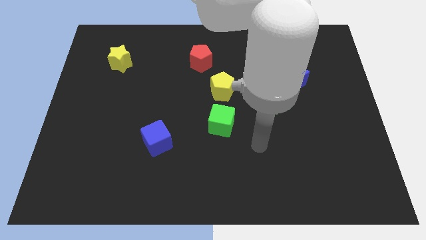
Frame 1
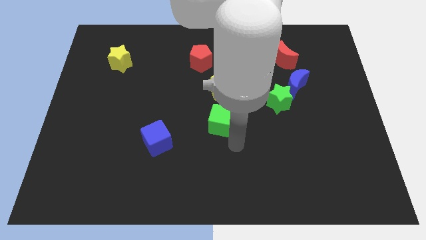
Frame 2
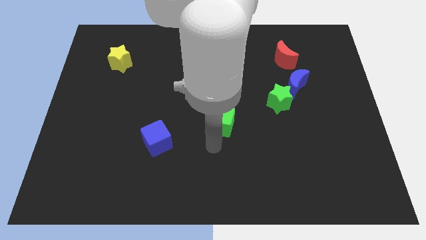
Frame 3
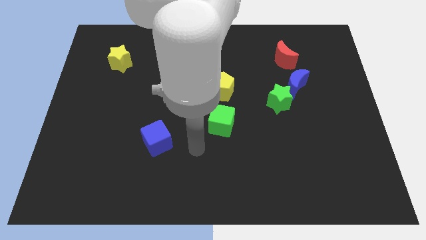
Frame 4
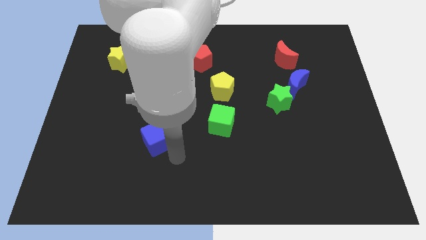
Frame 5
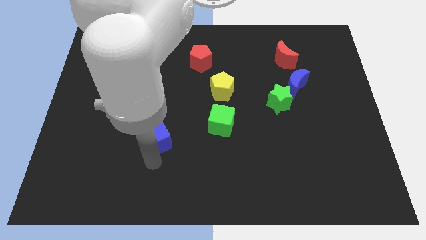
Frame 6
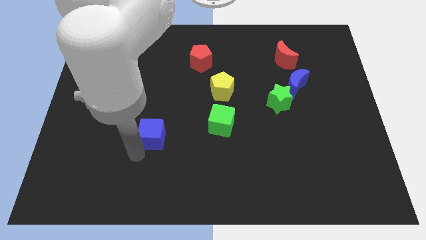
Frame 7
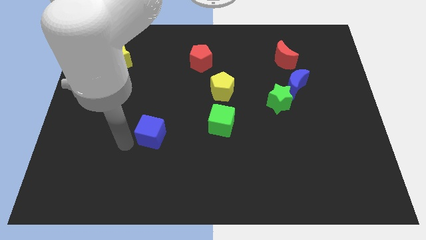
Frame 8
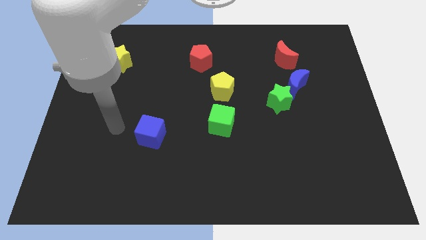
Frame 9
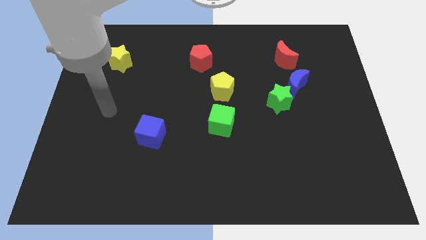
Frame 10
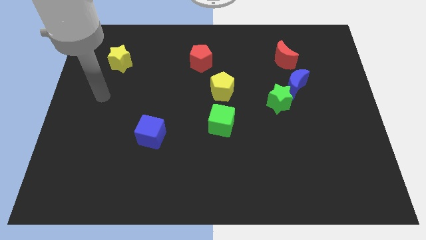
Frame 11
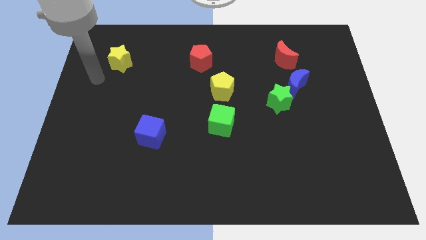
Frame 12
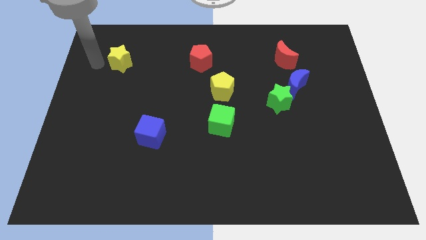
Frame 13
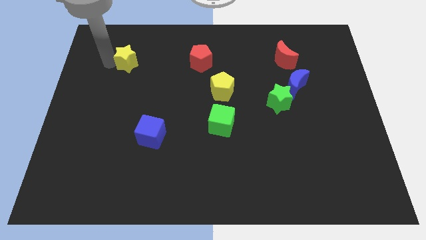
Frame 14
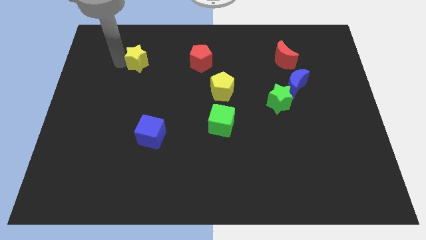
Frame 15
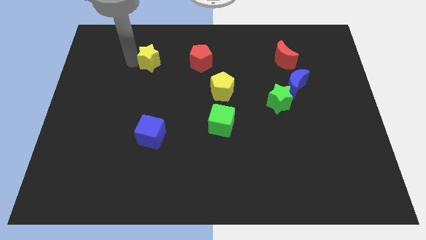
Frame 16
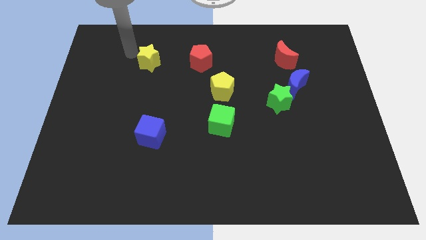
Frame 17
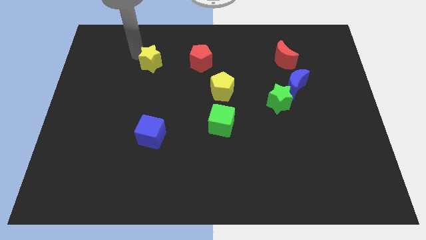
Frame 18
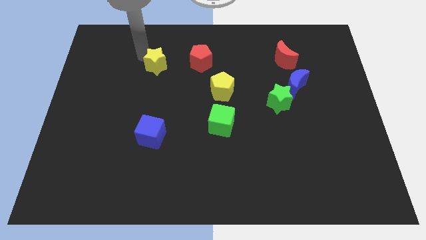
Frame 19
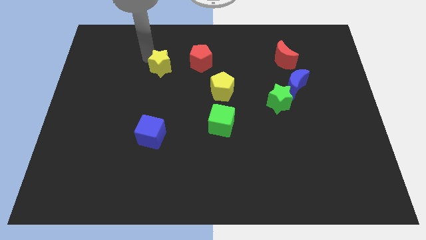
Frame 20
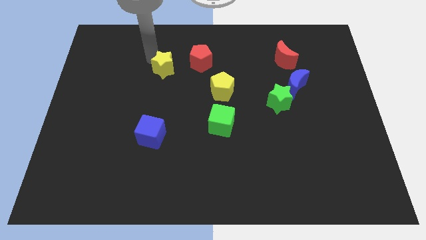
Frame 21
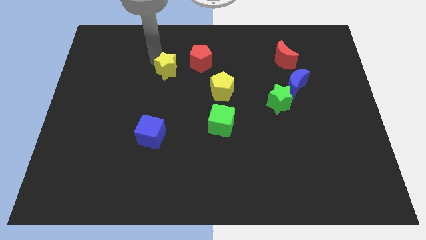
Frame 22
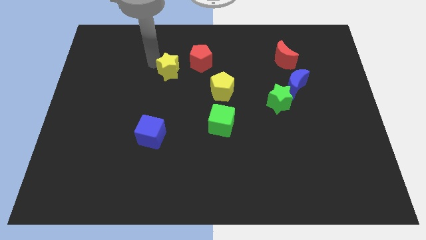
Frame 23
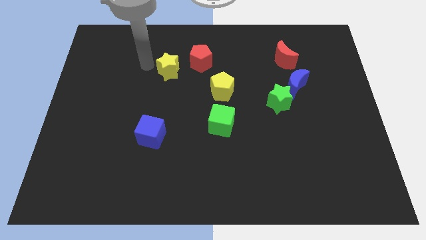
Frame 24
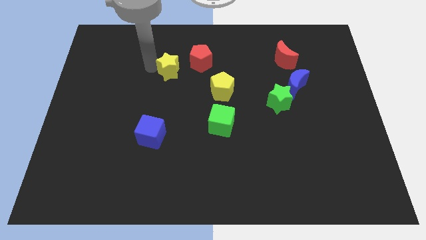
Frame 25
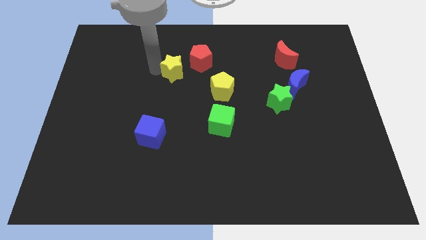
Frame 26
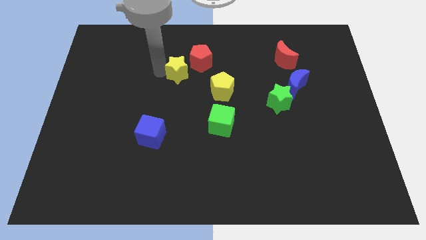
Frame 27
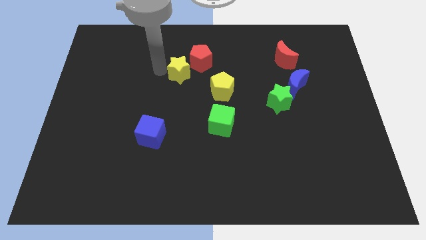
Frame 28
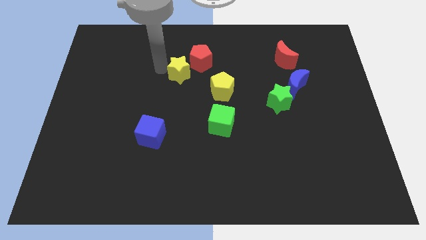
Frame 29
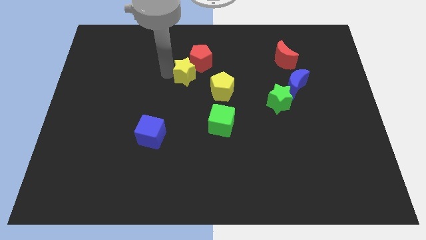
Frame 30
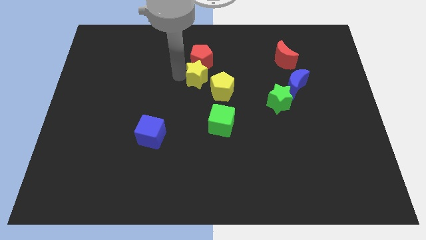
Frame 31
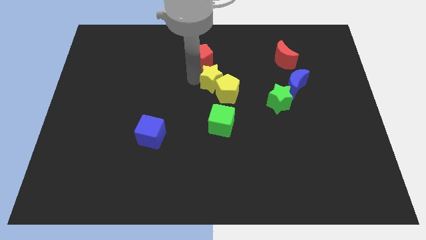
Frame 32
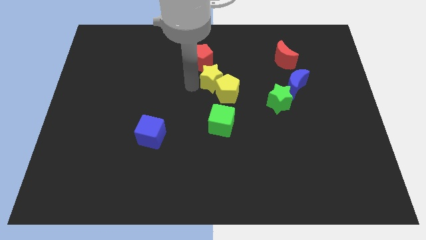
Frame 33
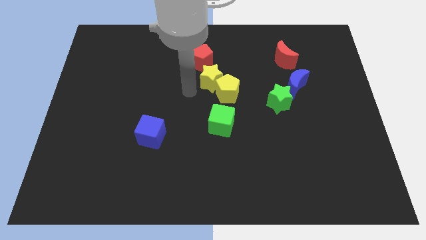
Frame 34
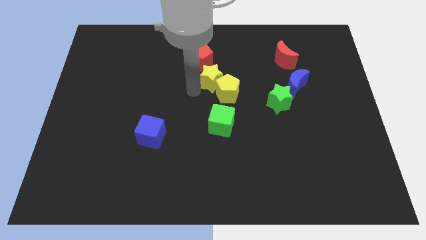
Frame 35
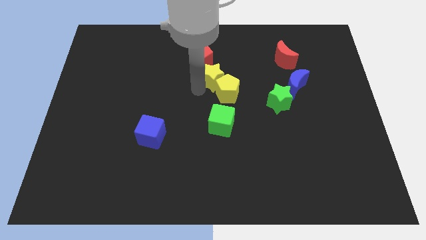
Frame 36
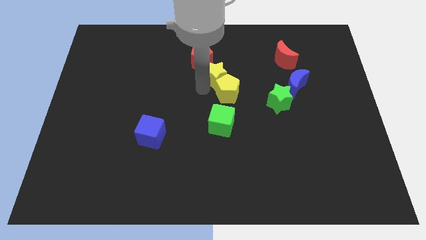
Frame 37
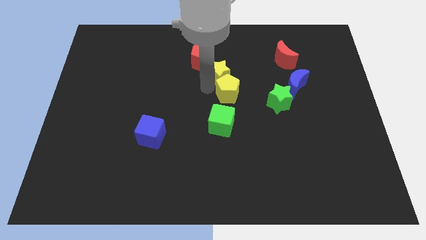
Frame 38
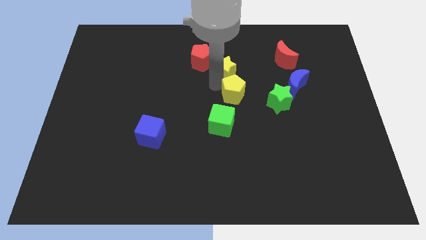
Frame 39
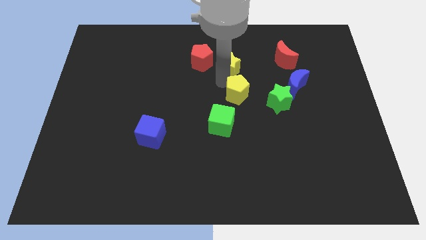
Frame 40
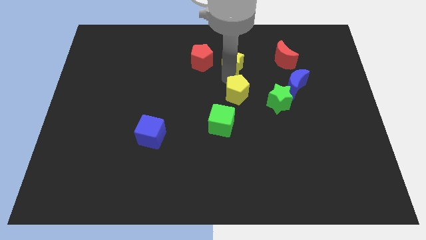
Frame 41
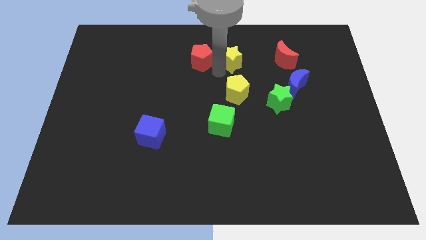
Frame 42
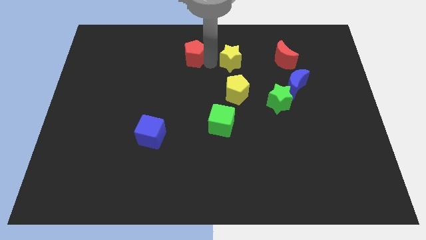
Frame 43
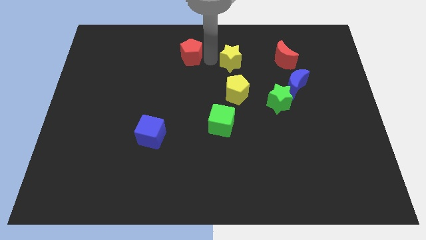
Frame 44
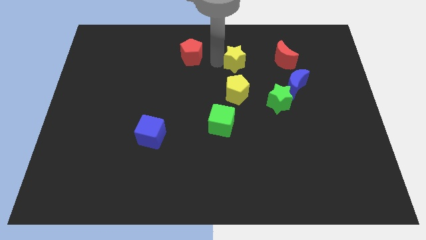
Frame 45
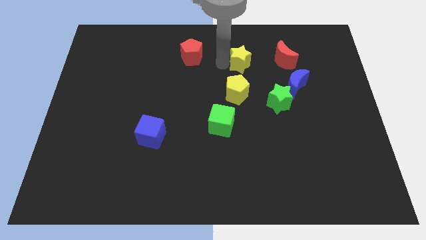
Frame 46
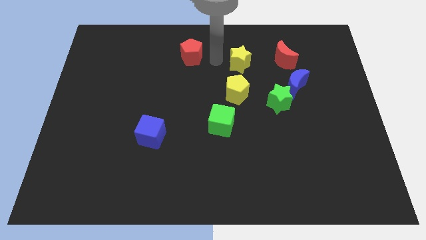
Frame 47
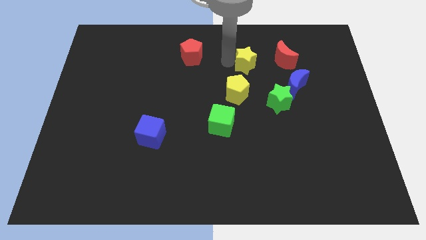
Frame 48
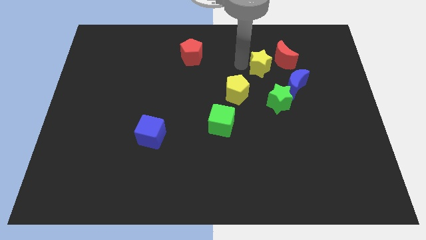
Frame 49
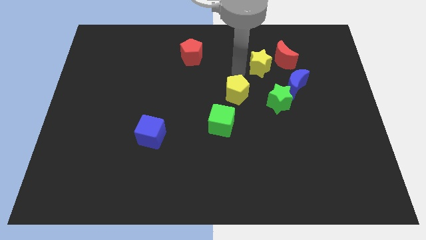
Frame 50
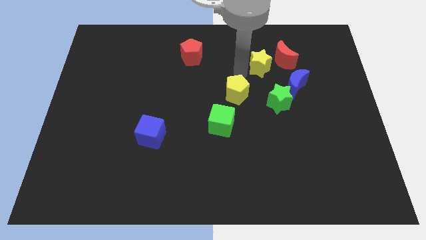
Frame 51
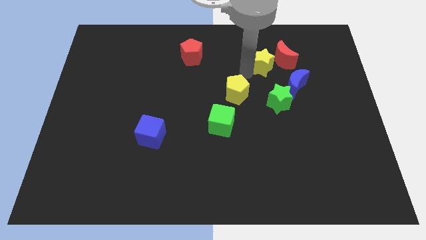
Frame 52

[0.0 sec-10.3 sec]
move the yellow star towards the red moon

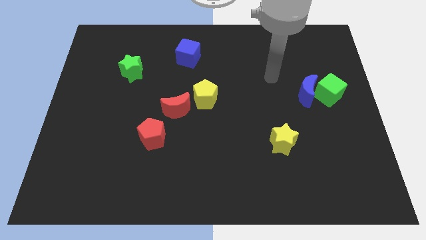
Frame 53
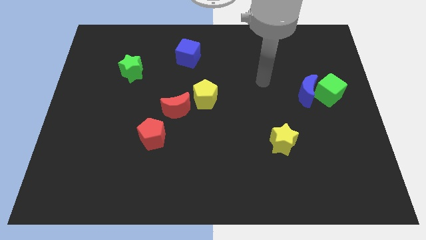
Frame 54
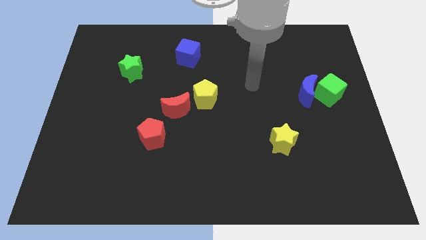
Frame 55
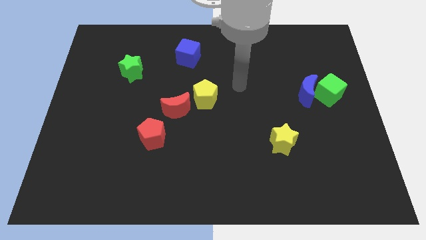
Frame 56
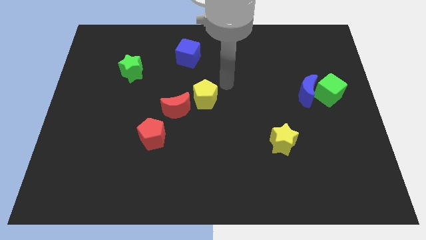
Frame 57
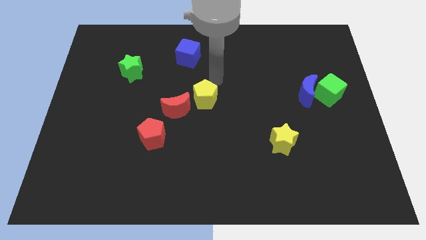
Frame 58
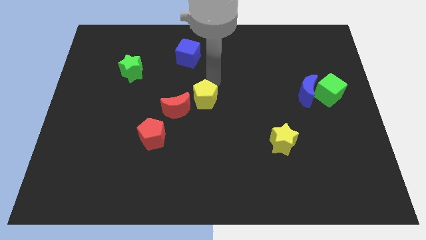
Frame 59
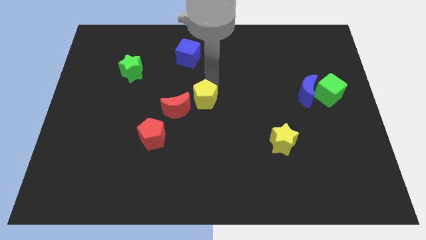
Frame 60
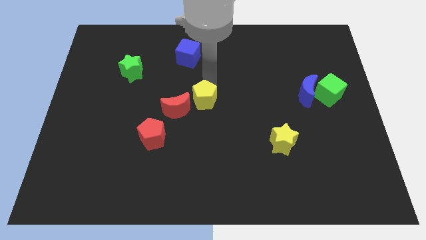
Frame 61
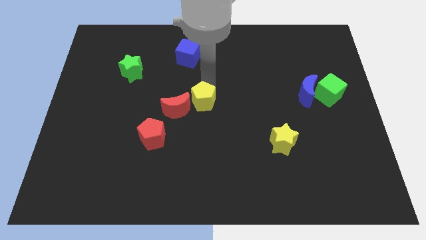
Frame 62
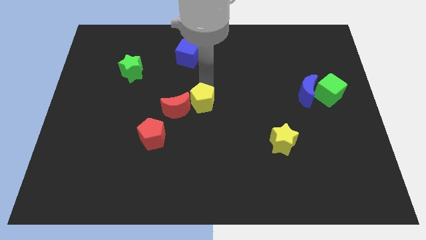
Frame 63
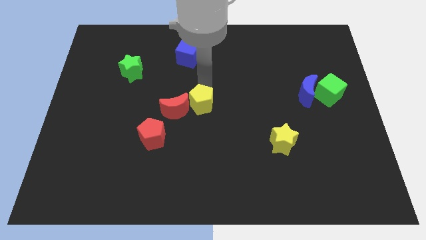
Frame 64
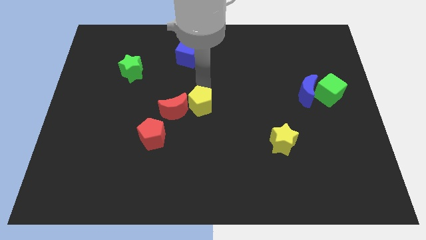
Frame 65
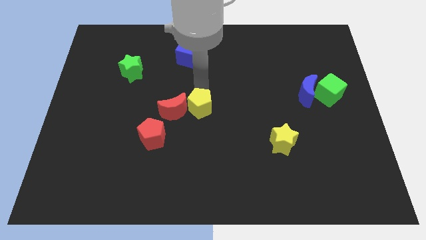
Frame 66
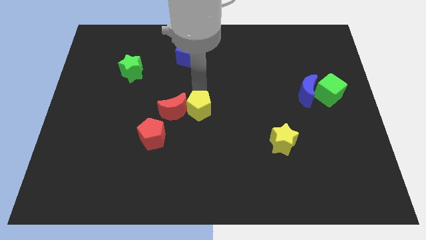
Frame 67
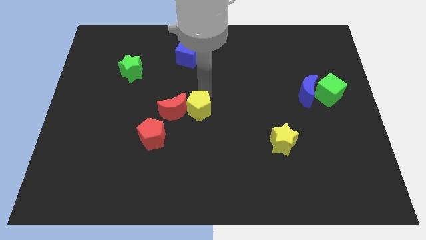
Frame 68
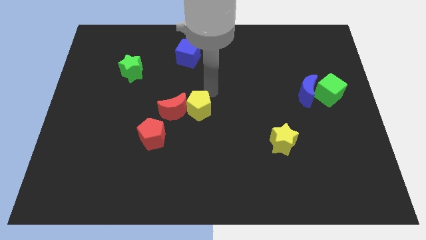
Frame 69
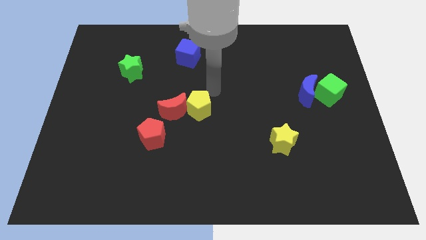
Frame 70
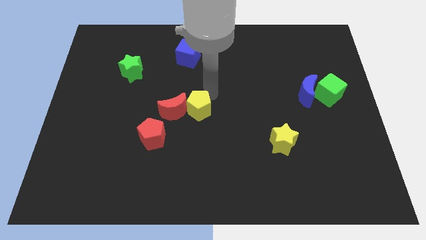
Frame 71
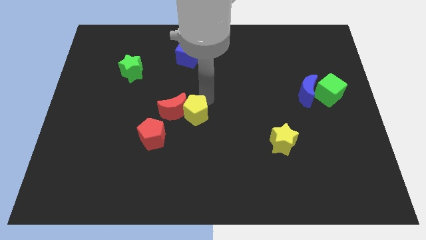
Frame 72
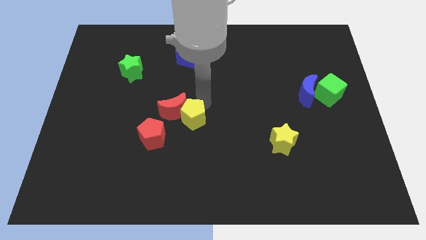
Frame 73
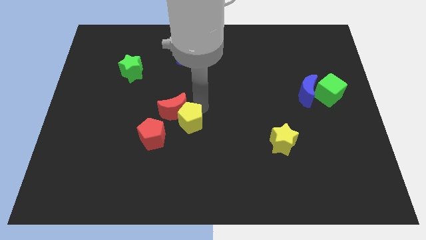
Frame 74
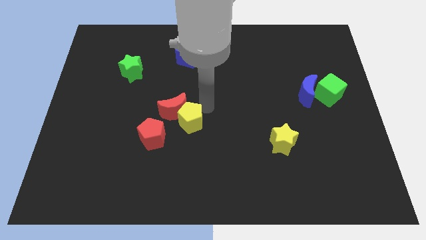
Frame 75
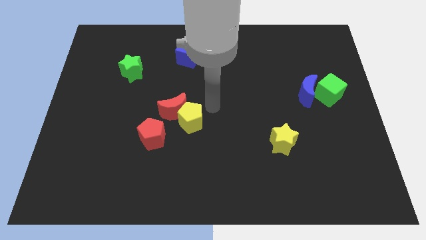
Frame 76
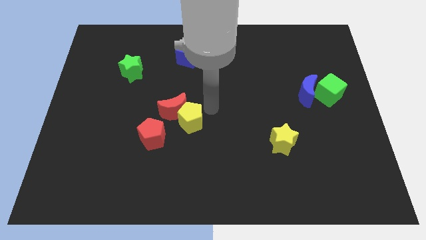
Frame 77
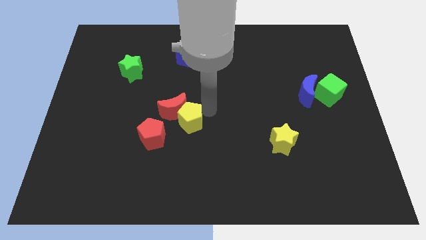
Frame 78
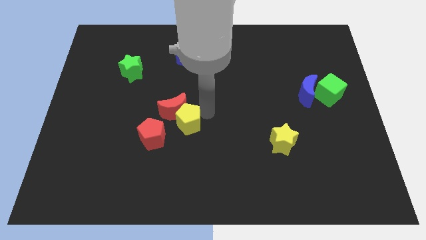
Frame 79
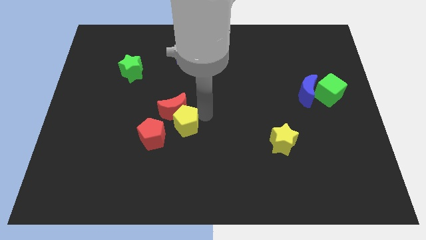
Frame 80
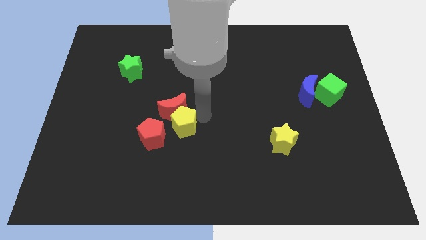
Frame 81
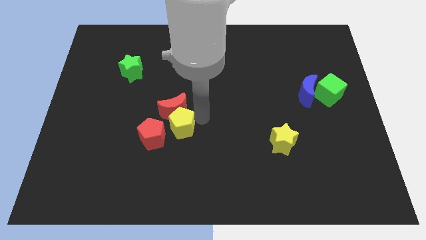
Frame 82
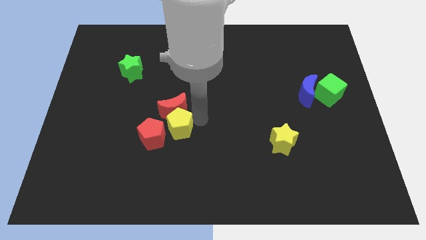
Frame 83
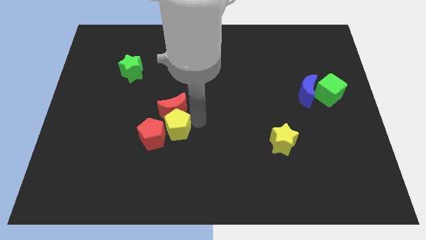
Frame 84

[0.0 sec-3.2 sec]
slide the yellow pentagon to the red pentagon
